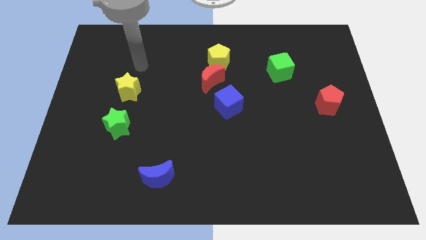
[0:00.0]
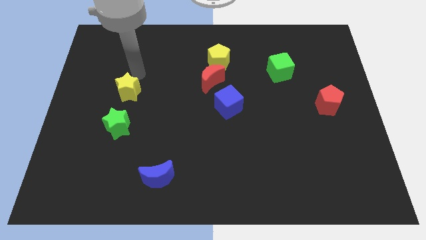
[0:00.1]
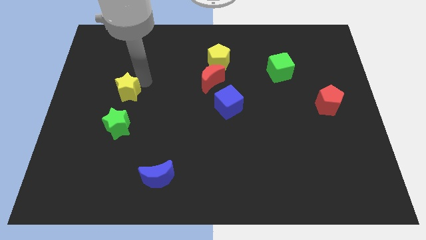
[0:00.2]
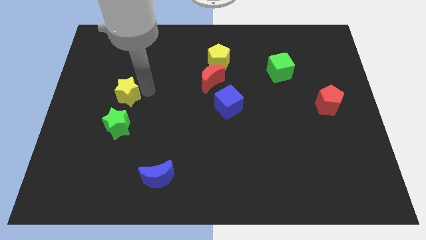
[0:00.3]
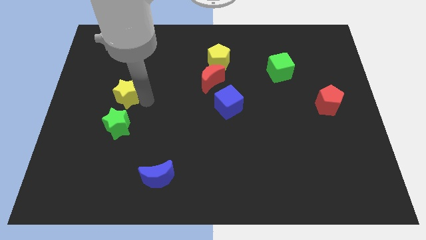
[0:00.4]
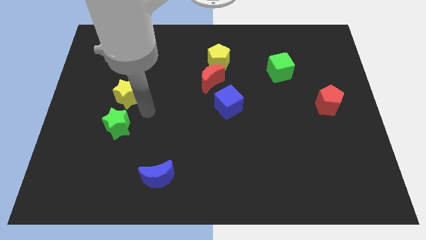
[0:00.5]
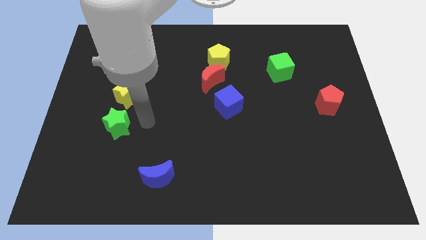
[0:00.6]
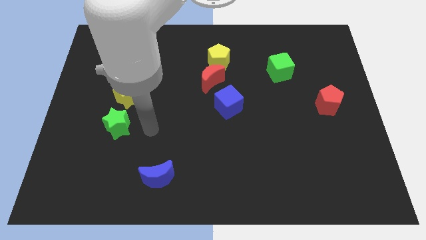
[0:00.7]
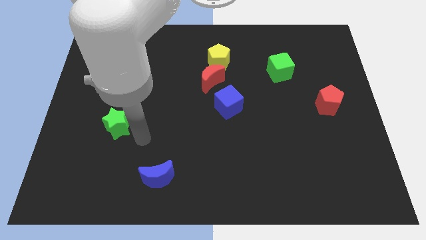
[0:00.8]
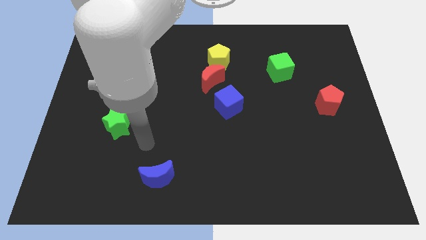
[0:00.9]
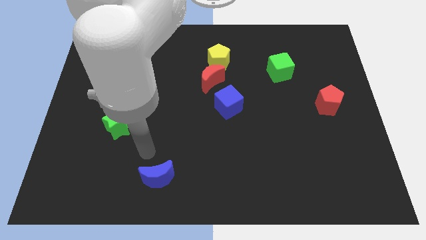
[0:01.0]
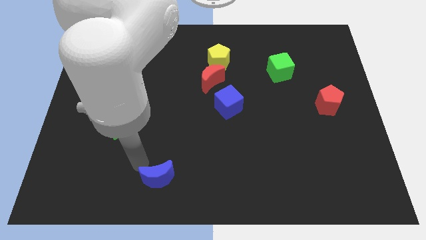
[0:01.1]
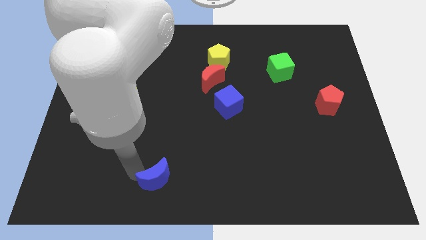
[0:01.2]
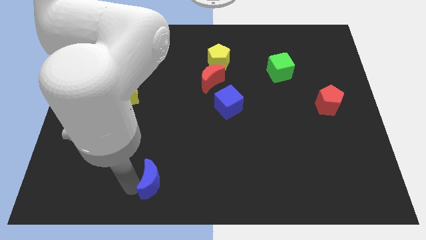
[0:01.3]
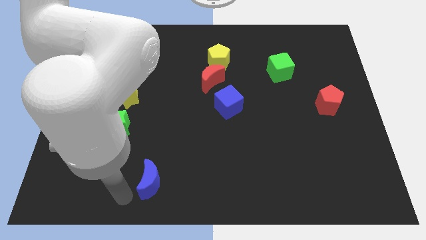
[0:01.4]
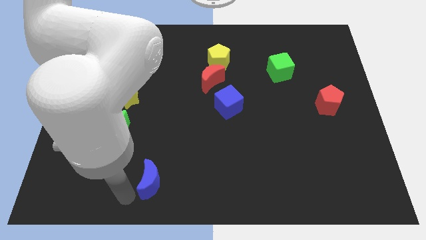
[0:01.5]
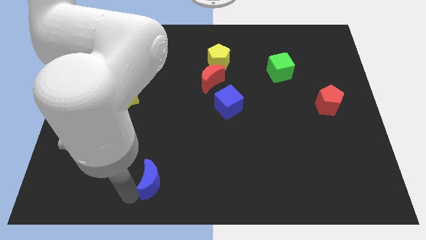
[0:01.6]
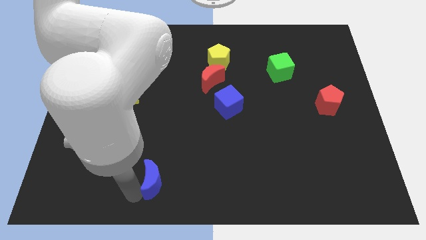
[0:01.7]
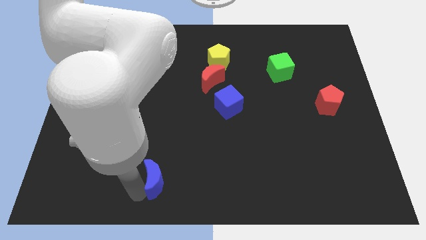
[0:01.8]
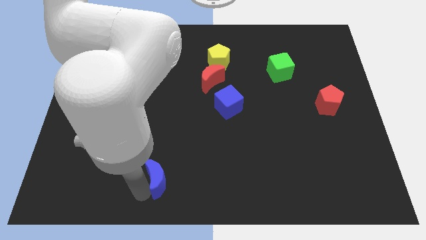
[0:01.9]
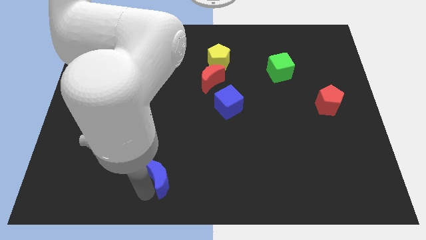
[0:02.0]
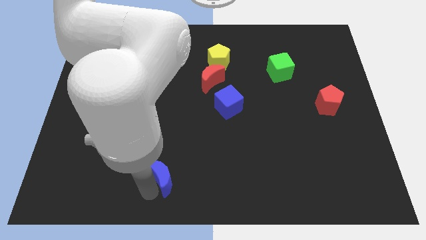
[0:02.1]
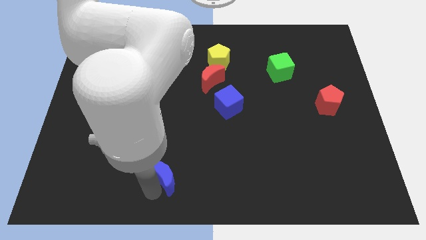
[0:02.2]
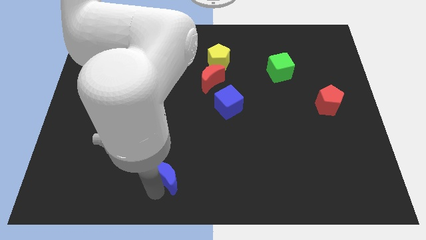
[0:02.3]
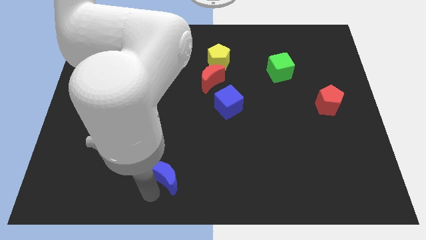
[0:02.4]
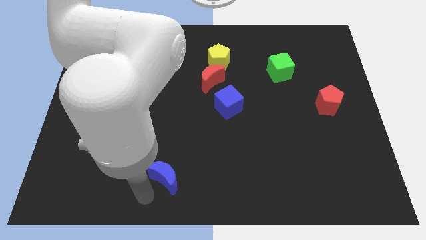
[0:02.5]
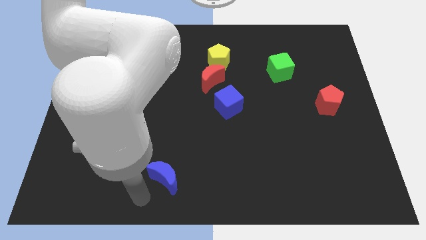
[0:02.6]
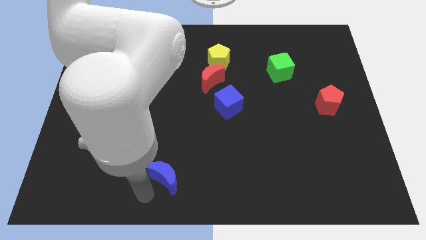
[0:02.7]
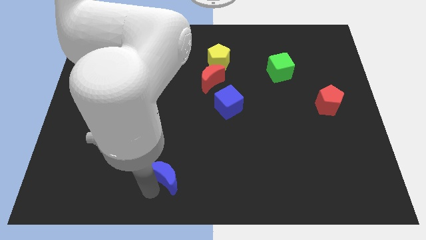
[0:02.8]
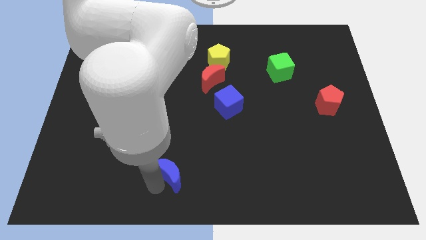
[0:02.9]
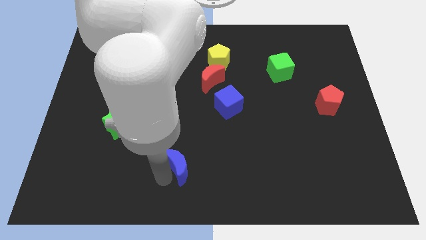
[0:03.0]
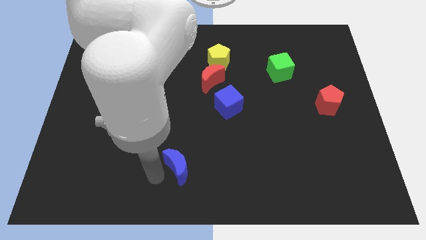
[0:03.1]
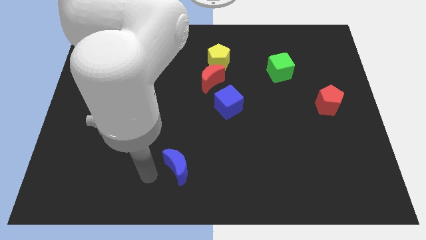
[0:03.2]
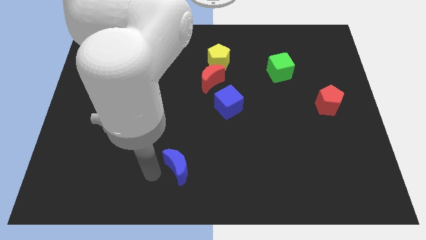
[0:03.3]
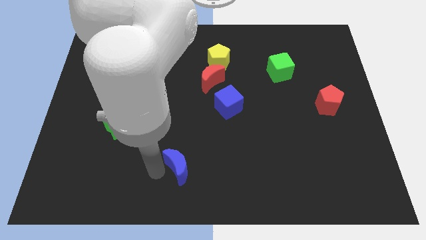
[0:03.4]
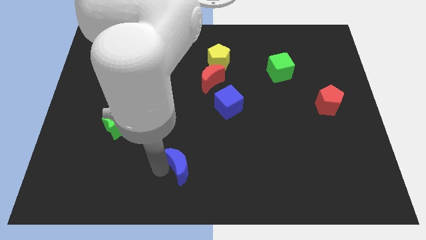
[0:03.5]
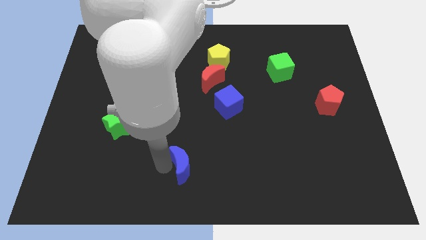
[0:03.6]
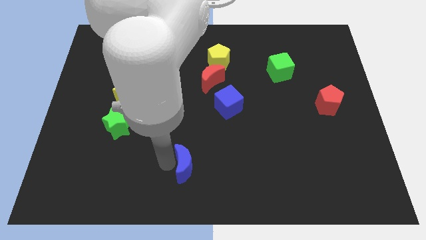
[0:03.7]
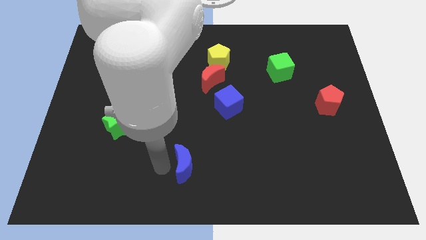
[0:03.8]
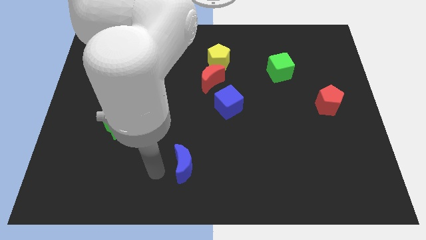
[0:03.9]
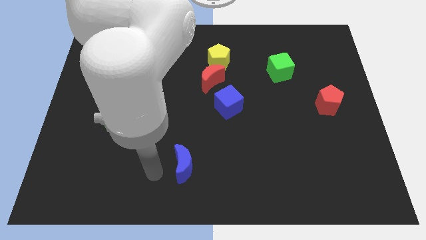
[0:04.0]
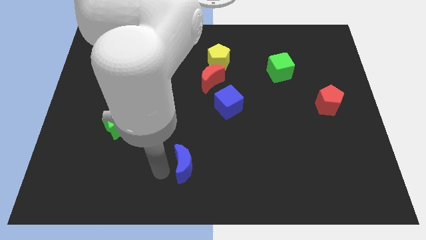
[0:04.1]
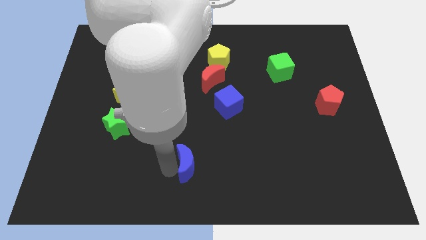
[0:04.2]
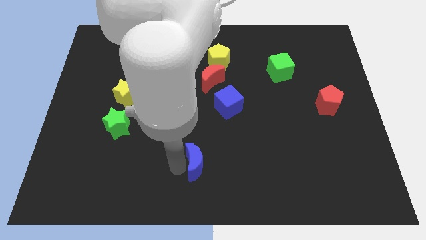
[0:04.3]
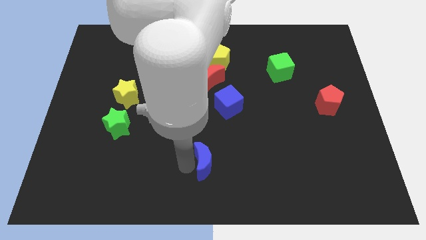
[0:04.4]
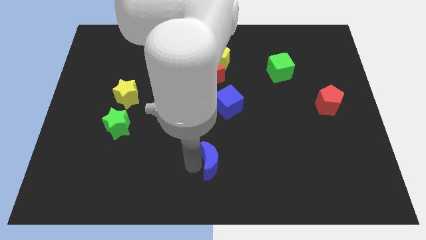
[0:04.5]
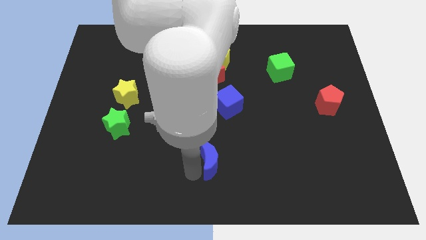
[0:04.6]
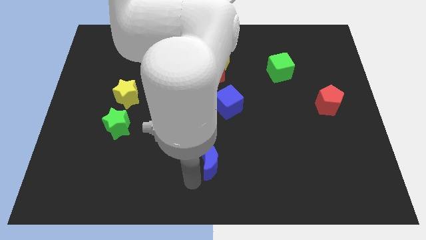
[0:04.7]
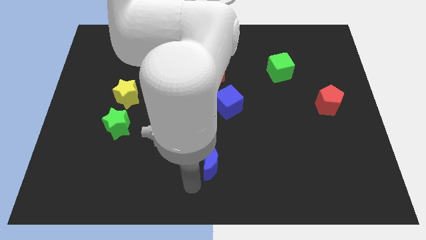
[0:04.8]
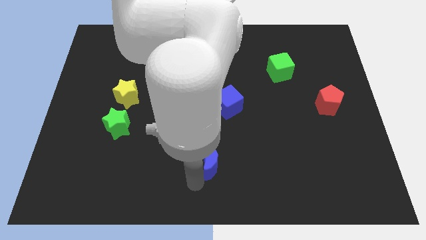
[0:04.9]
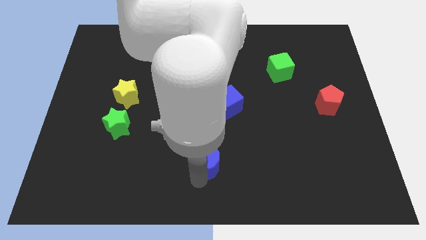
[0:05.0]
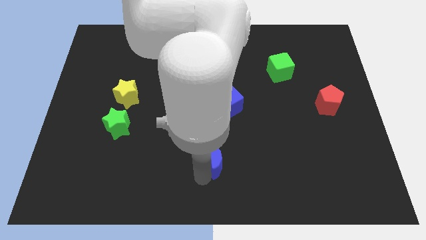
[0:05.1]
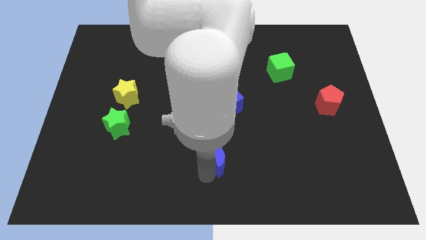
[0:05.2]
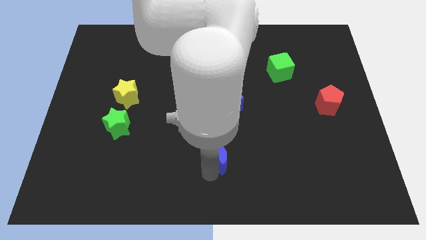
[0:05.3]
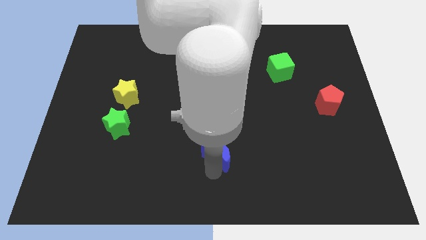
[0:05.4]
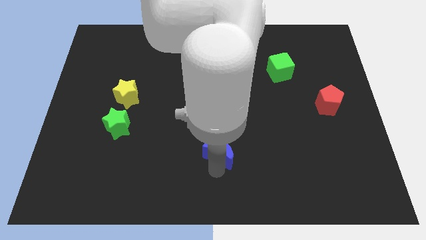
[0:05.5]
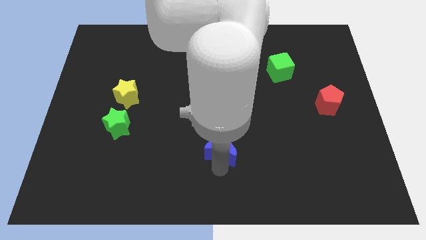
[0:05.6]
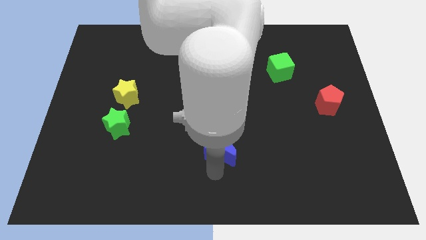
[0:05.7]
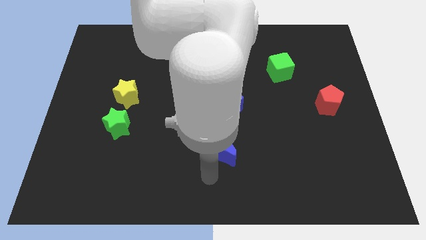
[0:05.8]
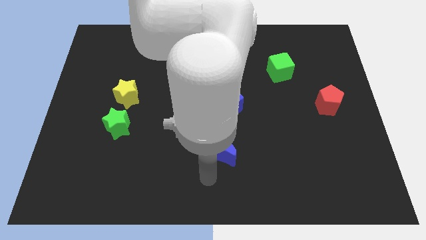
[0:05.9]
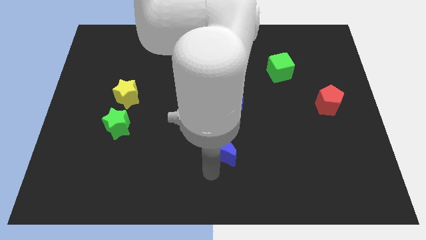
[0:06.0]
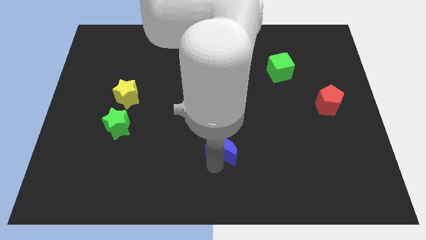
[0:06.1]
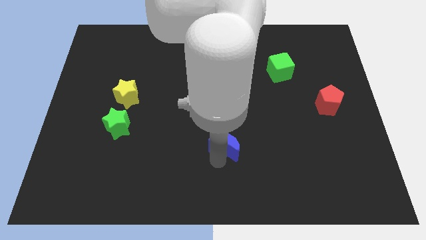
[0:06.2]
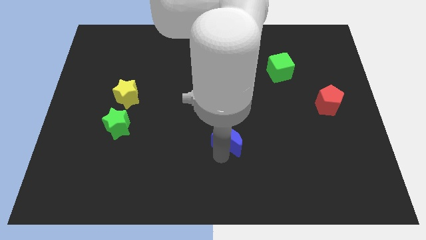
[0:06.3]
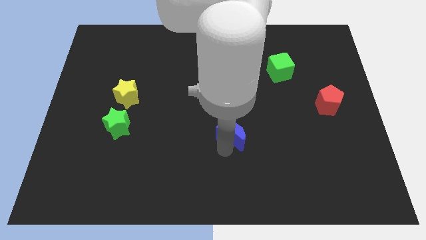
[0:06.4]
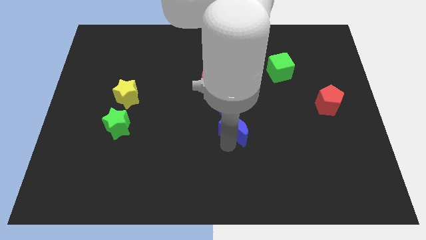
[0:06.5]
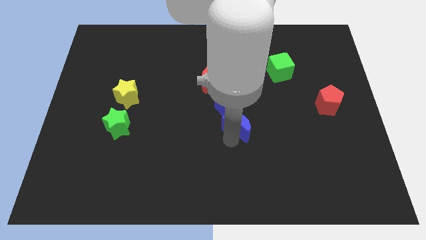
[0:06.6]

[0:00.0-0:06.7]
push the blue moon upwards and right diagonally

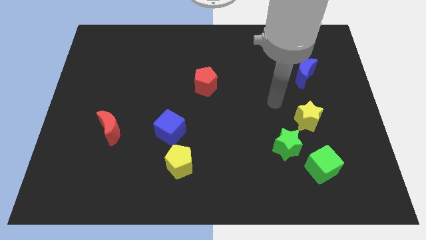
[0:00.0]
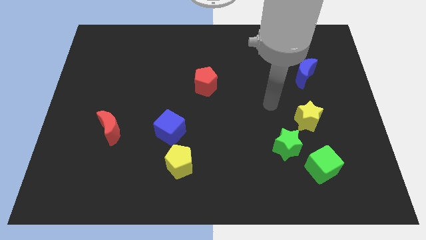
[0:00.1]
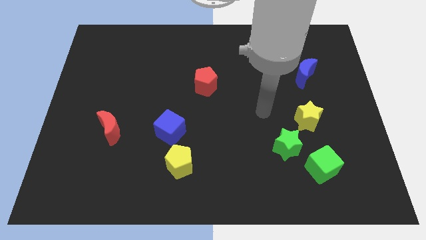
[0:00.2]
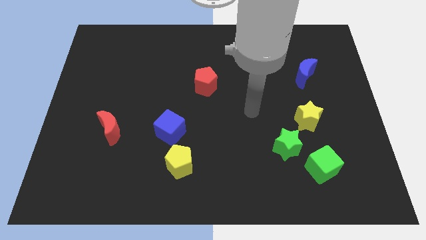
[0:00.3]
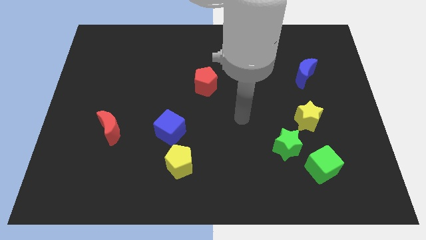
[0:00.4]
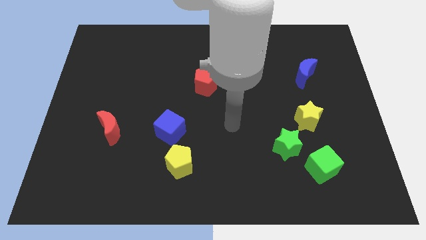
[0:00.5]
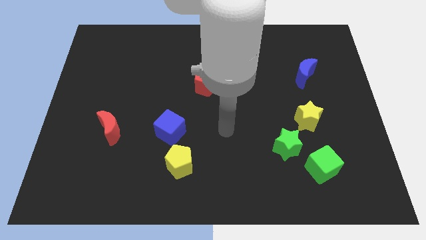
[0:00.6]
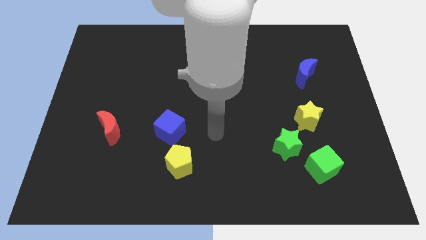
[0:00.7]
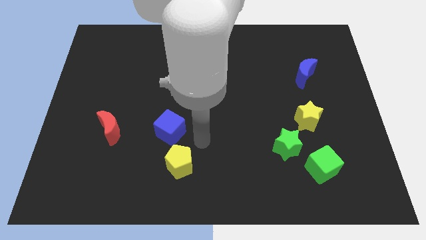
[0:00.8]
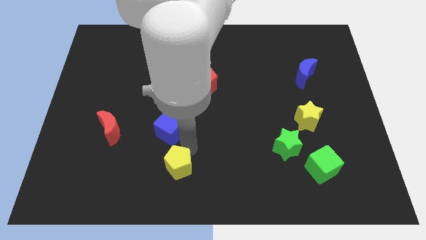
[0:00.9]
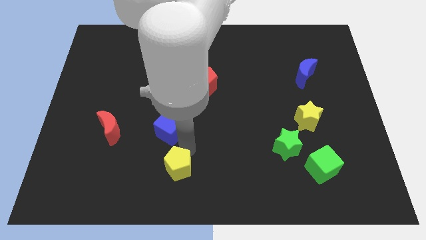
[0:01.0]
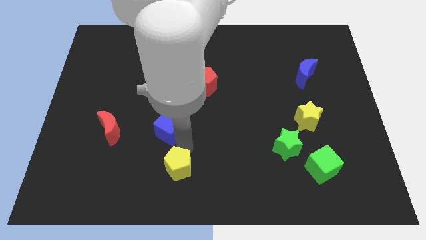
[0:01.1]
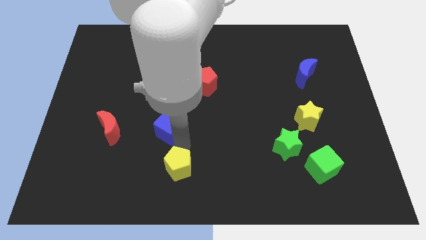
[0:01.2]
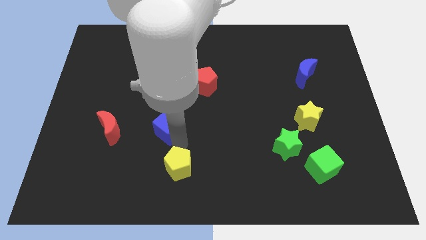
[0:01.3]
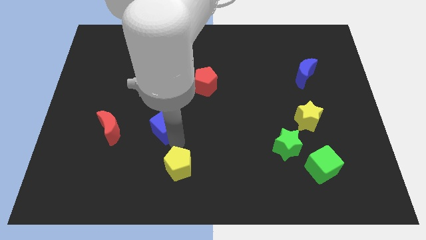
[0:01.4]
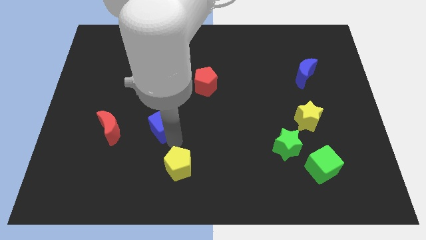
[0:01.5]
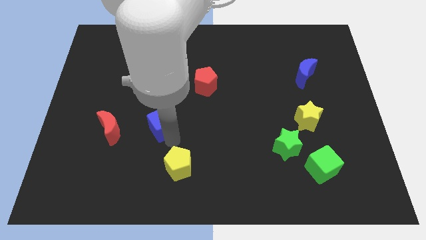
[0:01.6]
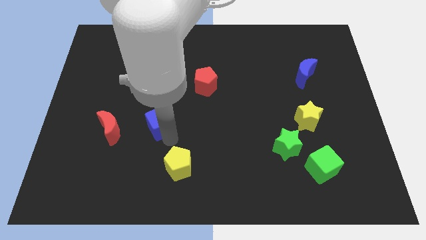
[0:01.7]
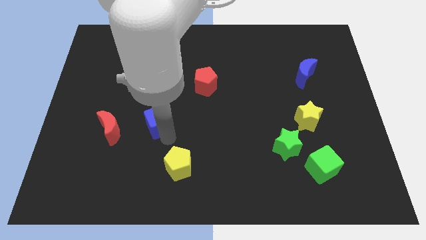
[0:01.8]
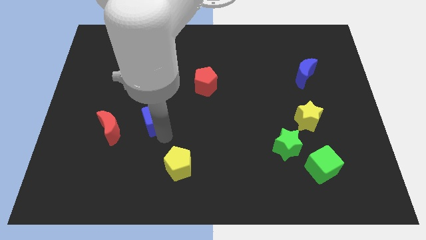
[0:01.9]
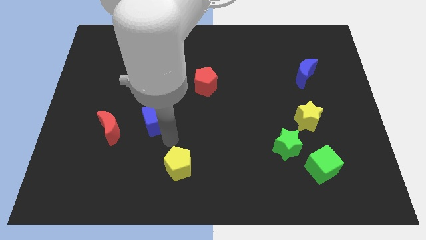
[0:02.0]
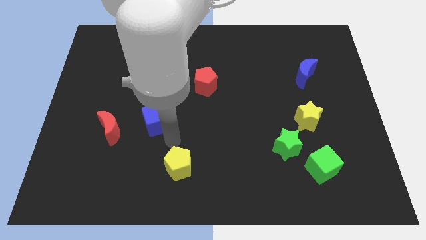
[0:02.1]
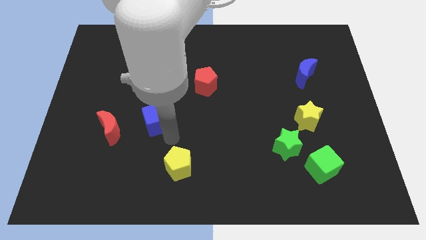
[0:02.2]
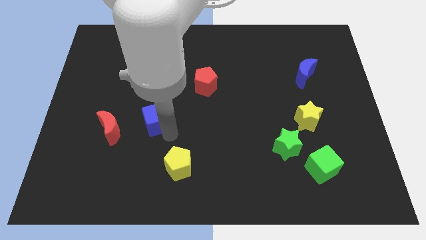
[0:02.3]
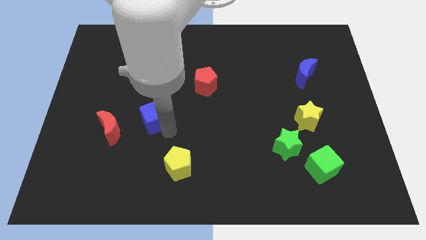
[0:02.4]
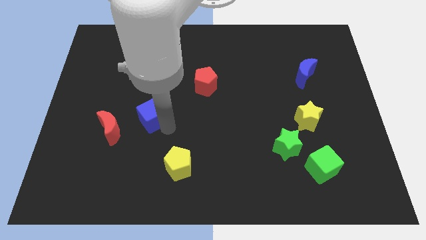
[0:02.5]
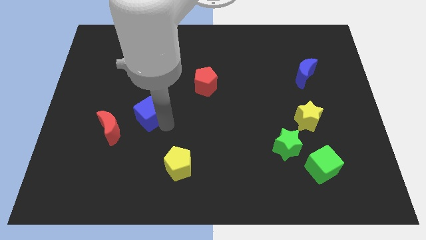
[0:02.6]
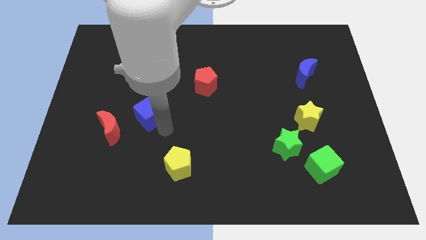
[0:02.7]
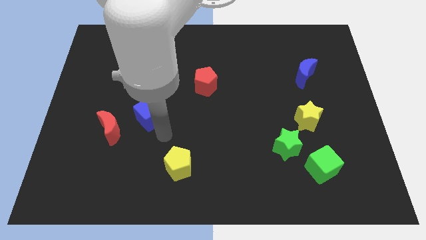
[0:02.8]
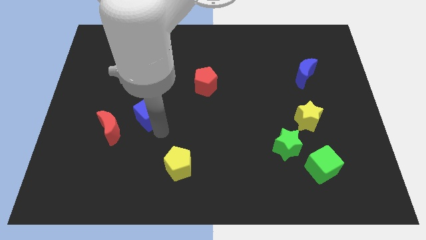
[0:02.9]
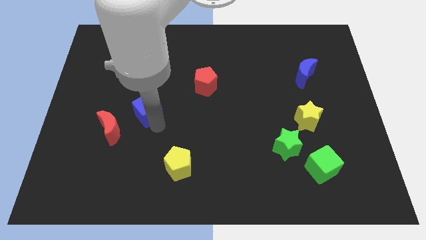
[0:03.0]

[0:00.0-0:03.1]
slightly push the blue cube diagonally upwards and to the left
